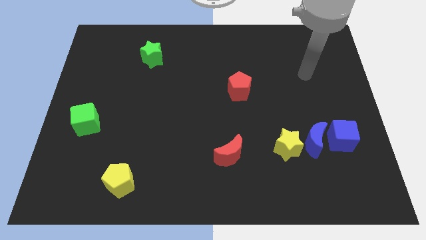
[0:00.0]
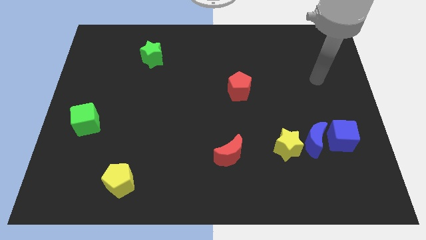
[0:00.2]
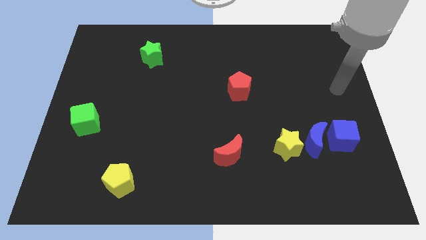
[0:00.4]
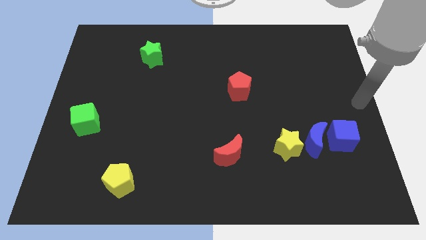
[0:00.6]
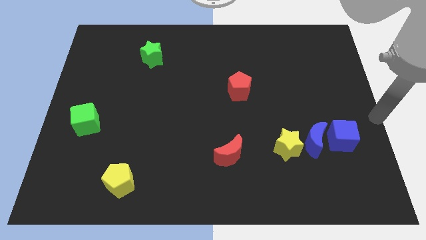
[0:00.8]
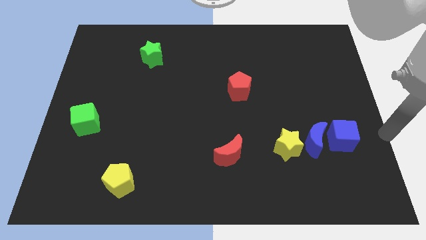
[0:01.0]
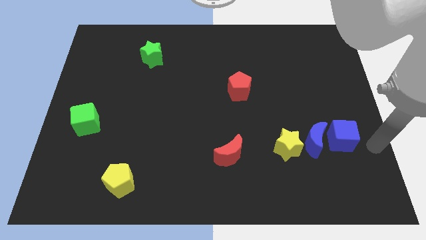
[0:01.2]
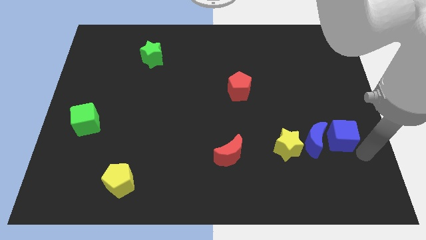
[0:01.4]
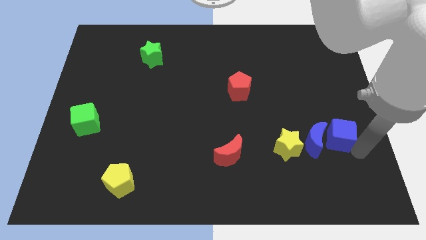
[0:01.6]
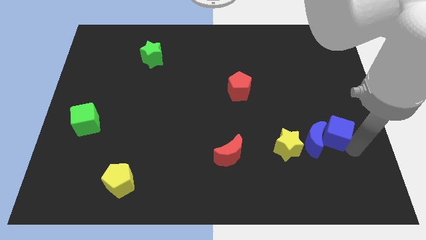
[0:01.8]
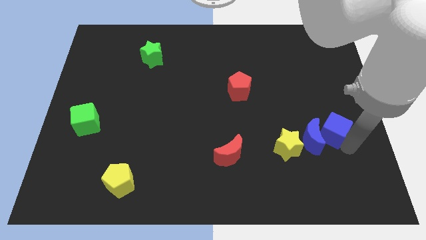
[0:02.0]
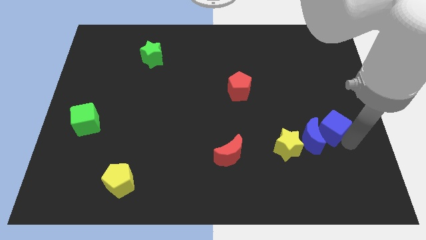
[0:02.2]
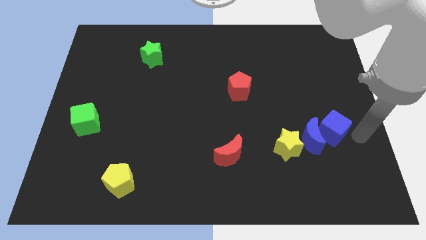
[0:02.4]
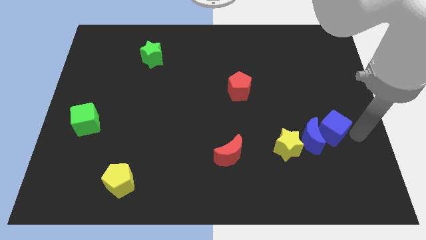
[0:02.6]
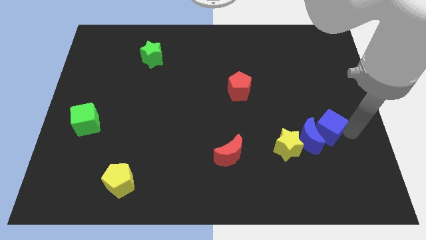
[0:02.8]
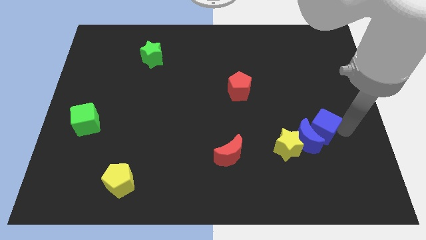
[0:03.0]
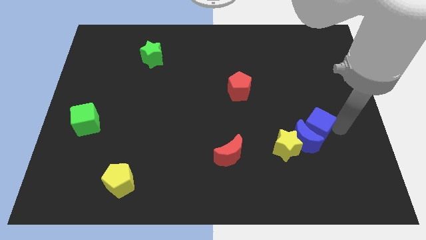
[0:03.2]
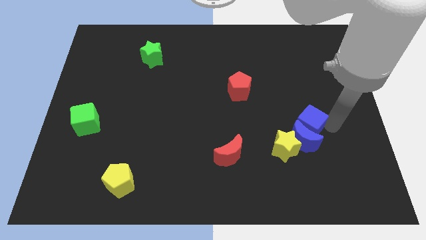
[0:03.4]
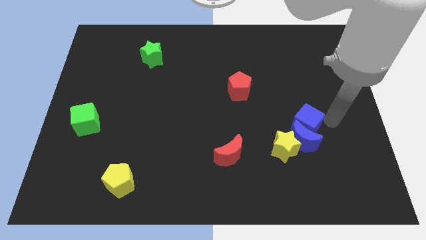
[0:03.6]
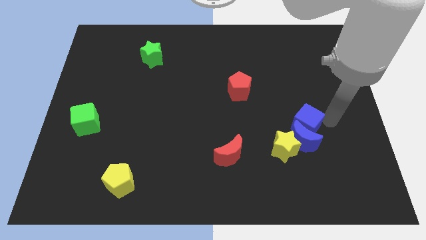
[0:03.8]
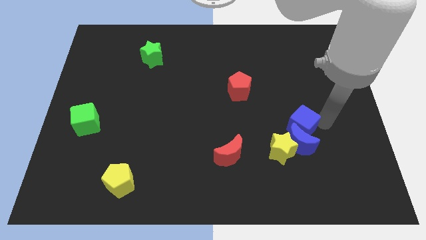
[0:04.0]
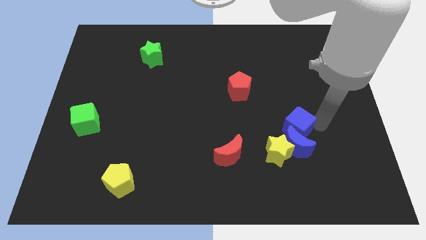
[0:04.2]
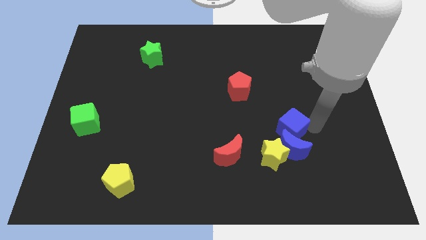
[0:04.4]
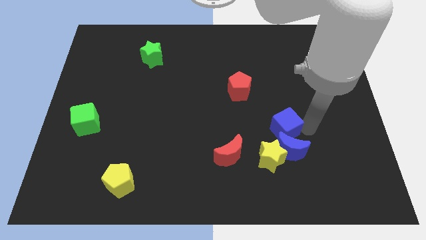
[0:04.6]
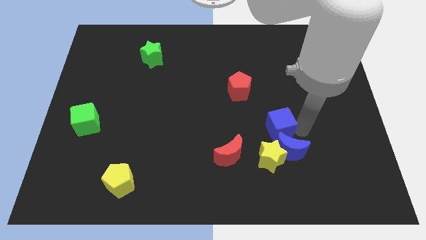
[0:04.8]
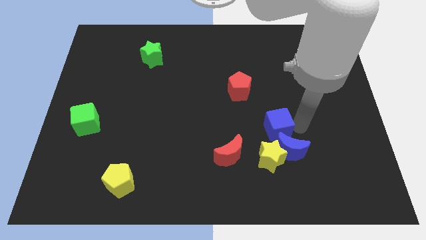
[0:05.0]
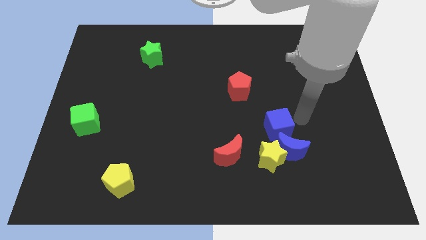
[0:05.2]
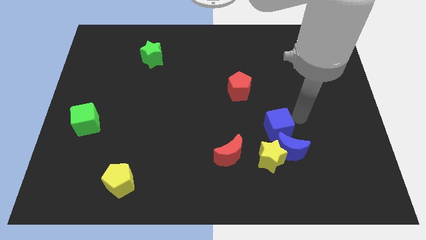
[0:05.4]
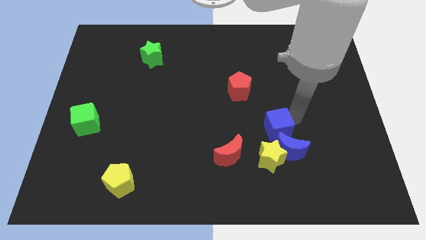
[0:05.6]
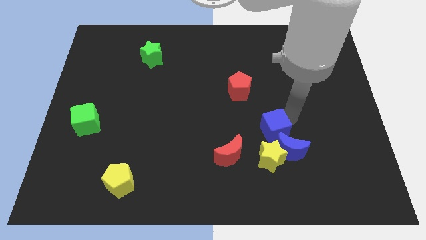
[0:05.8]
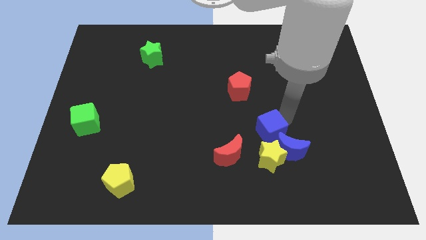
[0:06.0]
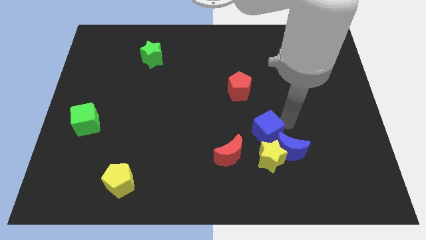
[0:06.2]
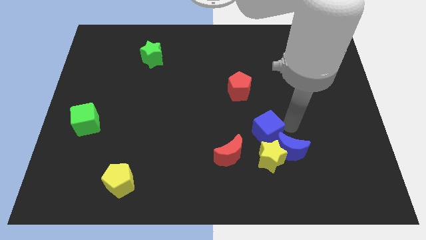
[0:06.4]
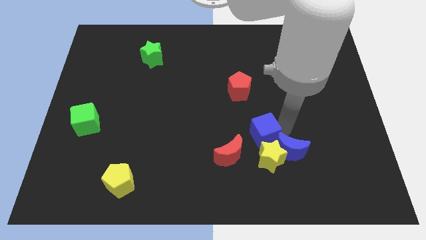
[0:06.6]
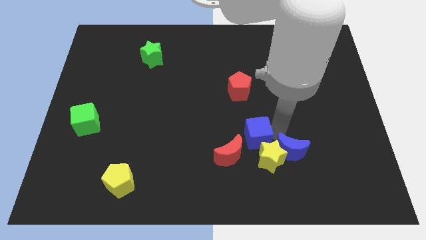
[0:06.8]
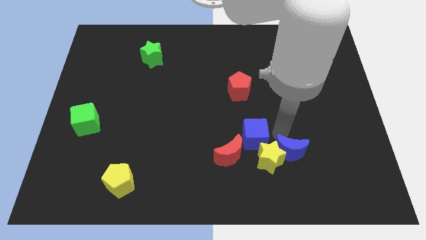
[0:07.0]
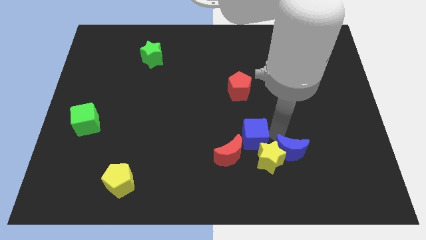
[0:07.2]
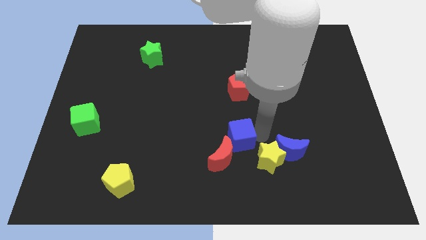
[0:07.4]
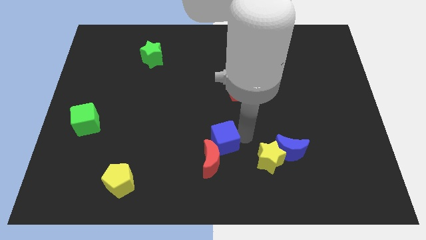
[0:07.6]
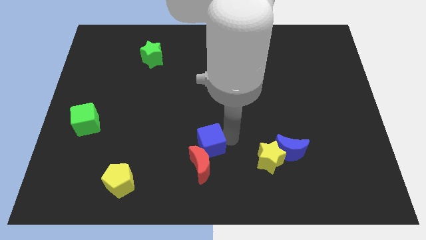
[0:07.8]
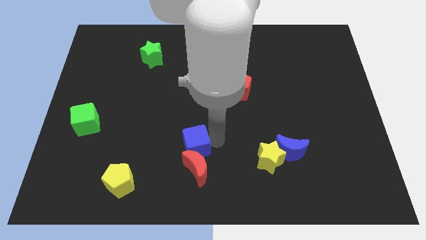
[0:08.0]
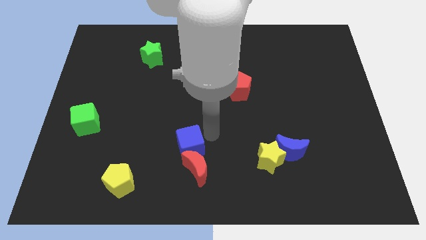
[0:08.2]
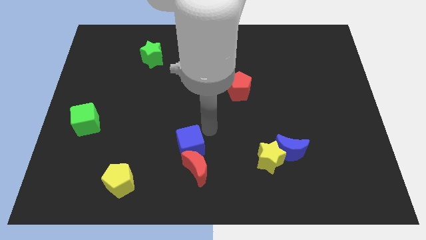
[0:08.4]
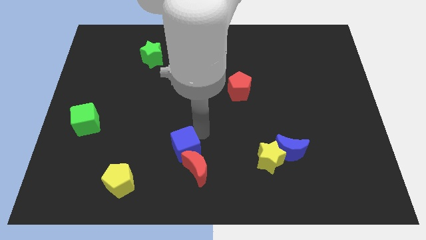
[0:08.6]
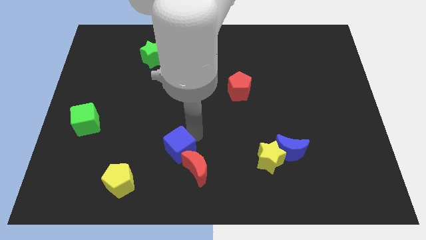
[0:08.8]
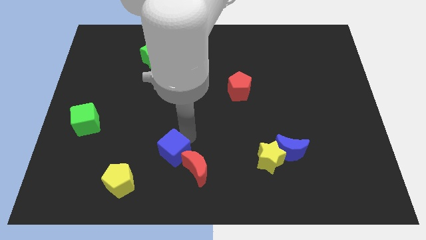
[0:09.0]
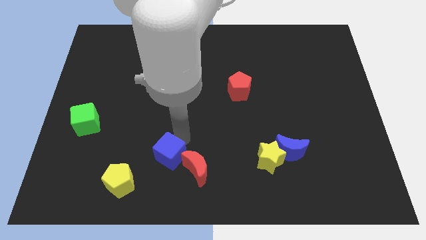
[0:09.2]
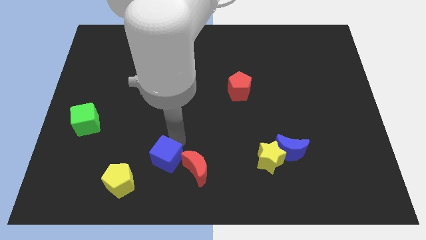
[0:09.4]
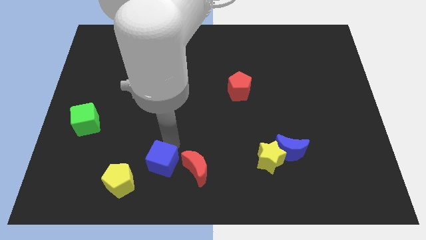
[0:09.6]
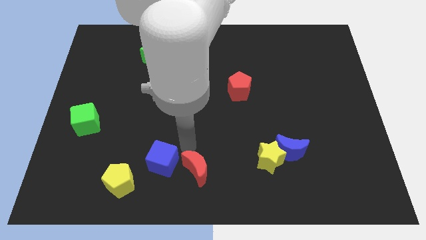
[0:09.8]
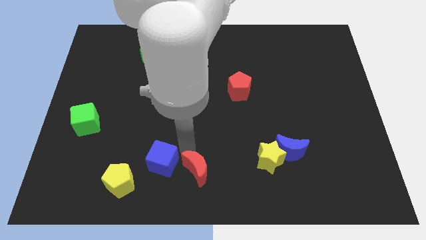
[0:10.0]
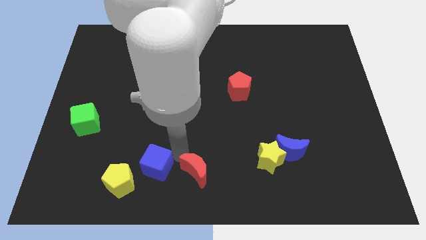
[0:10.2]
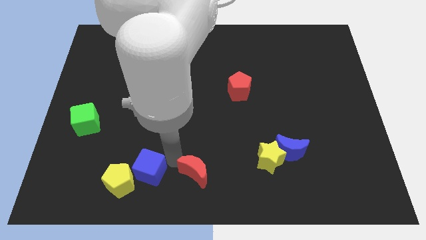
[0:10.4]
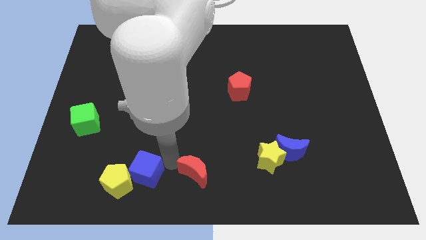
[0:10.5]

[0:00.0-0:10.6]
put the blue cube towards the yellow pentagon

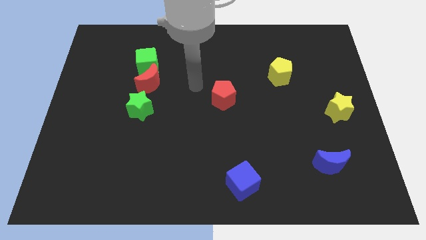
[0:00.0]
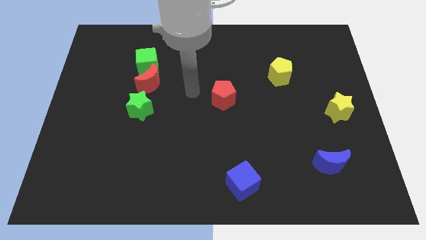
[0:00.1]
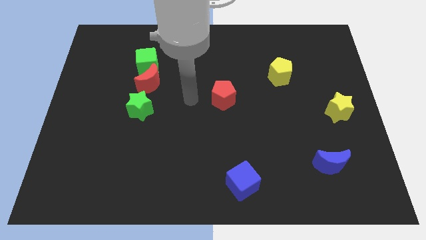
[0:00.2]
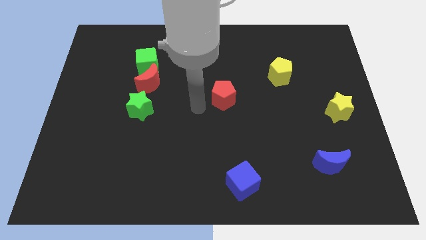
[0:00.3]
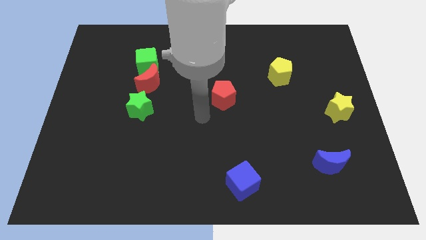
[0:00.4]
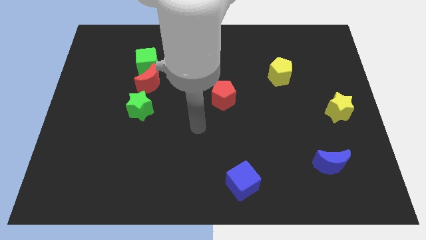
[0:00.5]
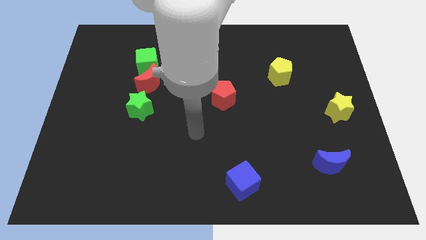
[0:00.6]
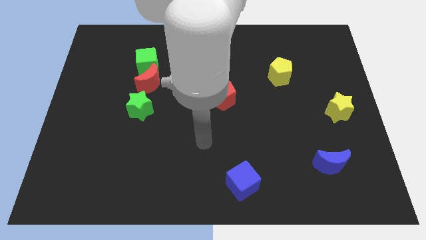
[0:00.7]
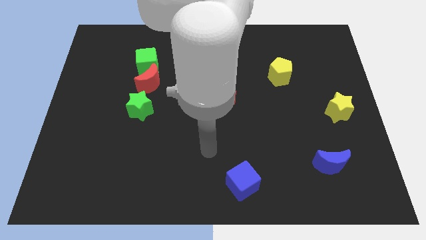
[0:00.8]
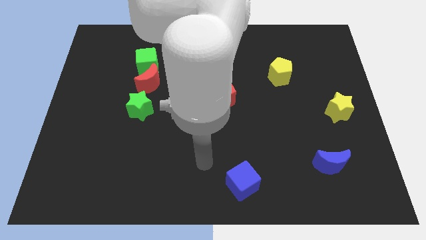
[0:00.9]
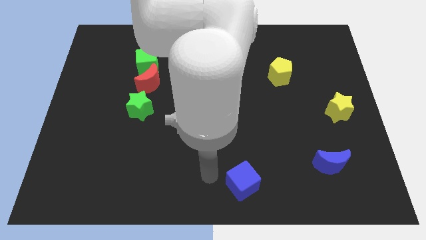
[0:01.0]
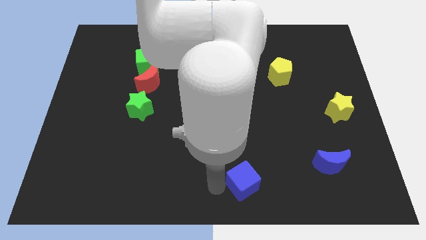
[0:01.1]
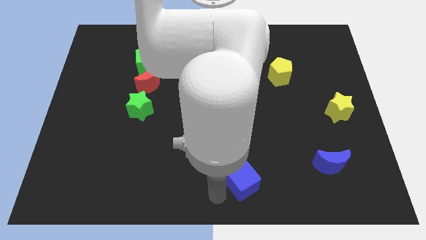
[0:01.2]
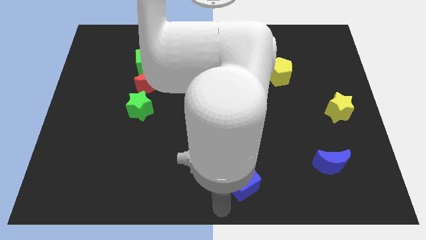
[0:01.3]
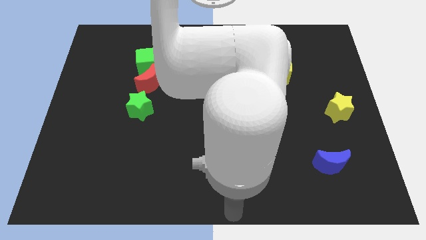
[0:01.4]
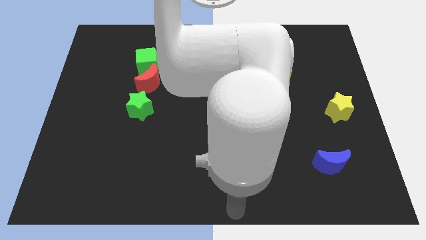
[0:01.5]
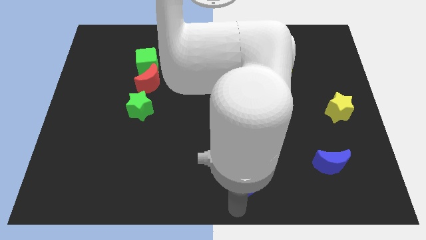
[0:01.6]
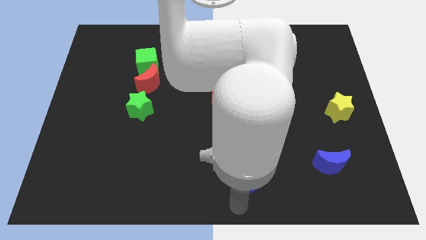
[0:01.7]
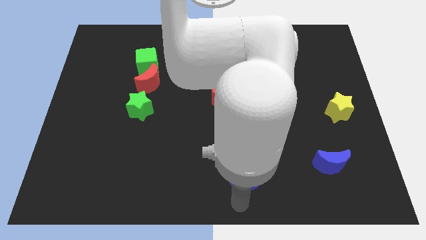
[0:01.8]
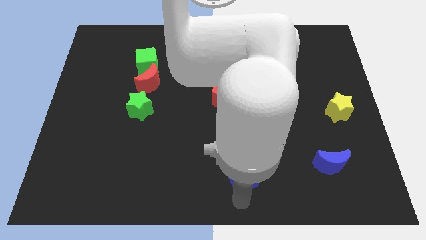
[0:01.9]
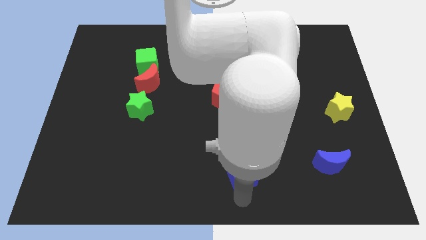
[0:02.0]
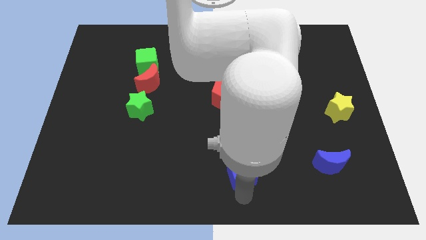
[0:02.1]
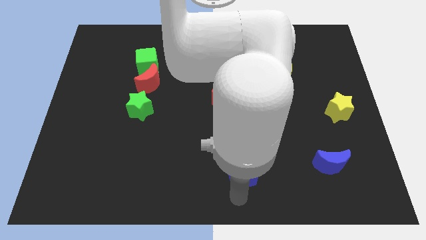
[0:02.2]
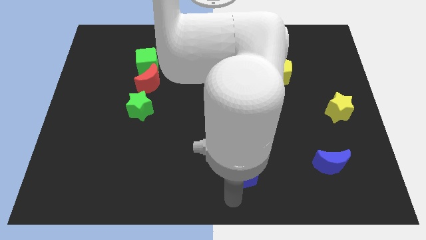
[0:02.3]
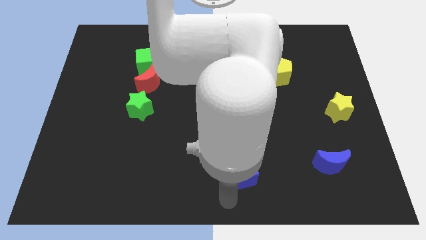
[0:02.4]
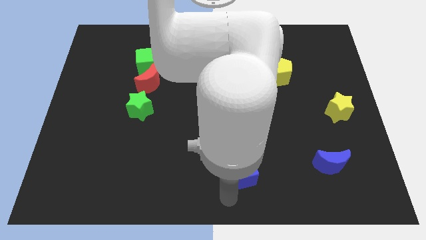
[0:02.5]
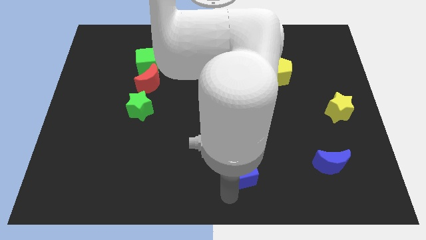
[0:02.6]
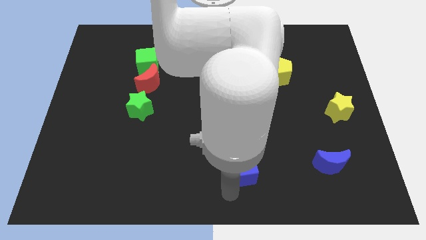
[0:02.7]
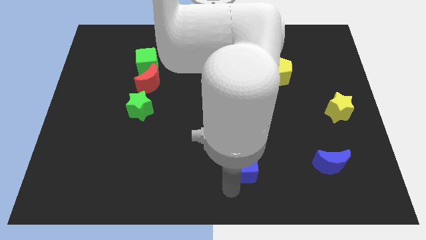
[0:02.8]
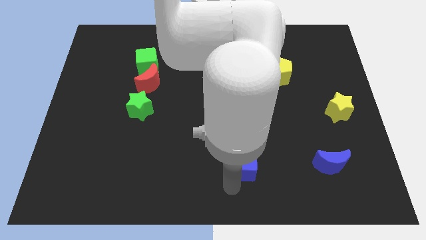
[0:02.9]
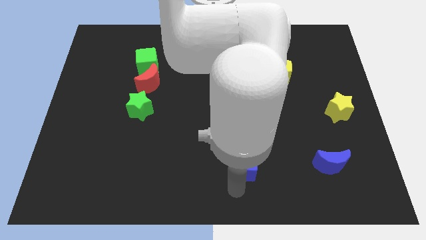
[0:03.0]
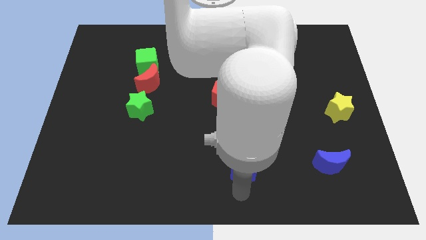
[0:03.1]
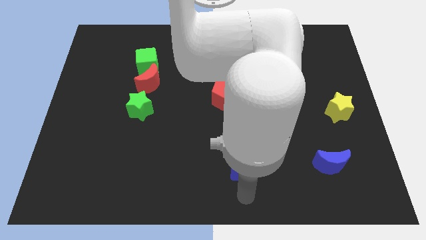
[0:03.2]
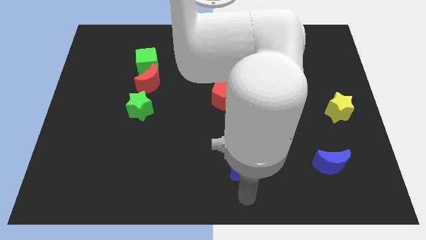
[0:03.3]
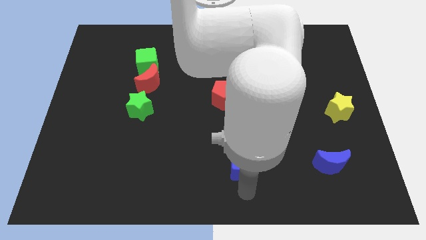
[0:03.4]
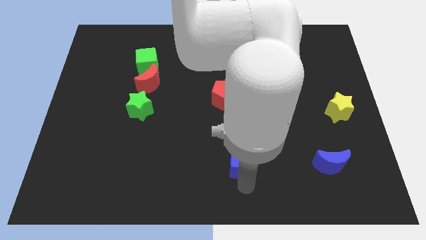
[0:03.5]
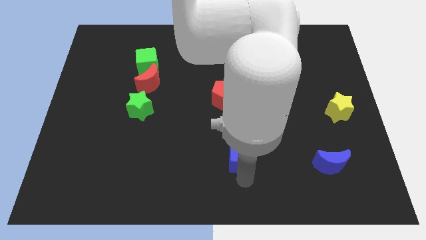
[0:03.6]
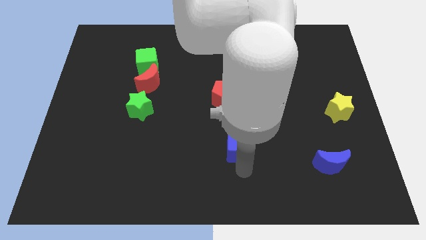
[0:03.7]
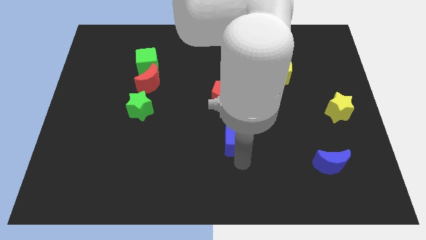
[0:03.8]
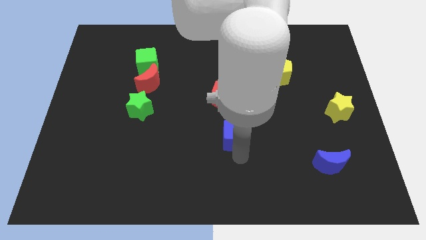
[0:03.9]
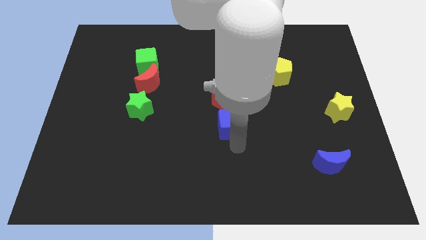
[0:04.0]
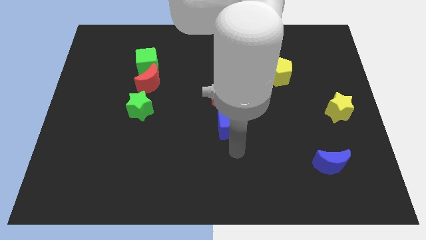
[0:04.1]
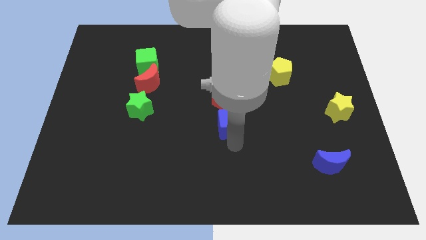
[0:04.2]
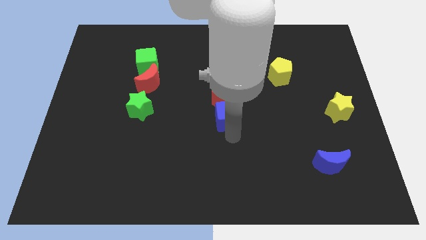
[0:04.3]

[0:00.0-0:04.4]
put the blue cube next to the red pentagon
